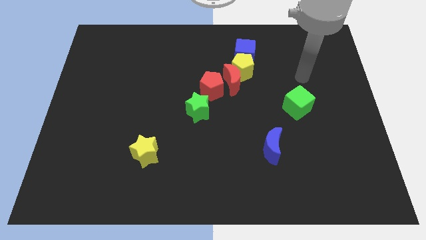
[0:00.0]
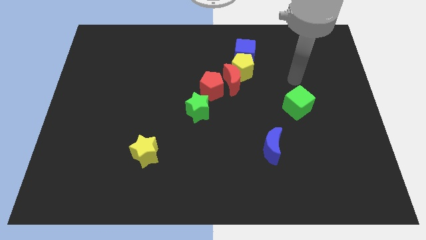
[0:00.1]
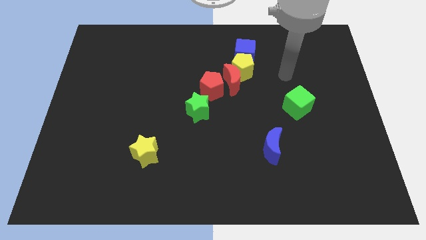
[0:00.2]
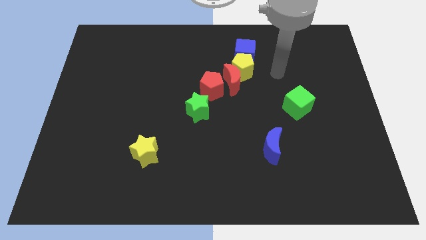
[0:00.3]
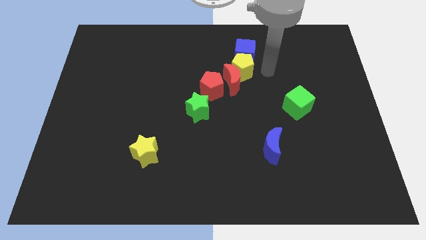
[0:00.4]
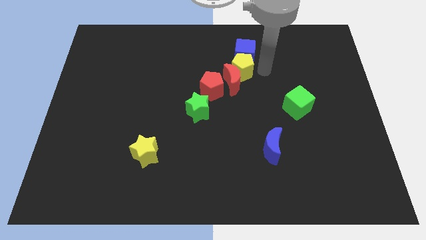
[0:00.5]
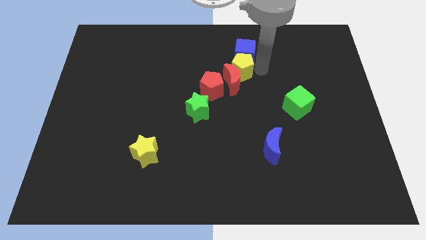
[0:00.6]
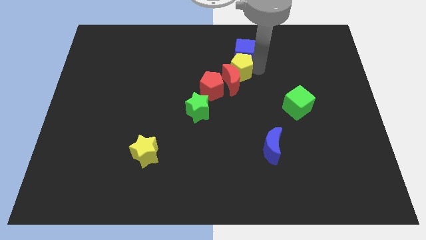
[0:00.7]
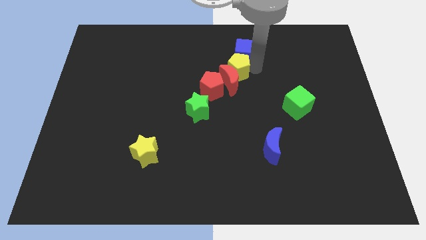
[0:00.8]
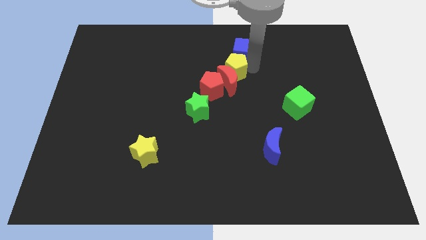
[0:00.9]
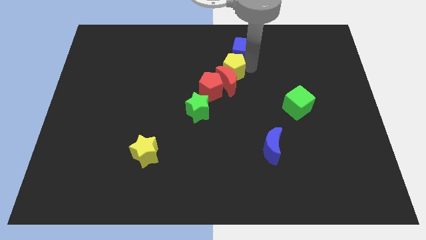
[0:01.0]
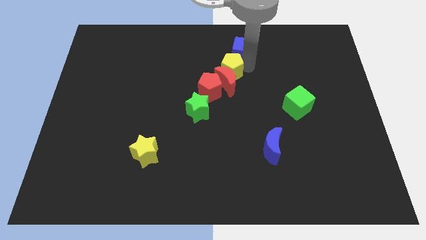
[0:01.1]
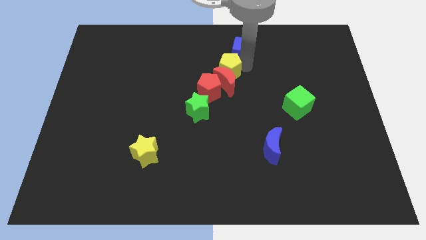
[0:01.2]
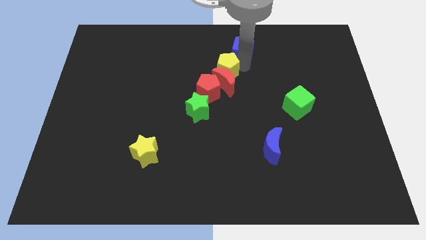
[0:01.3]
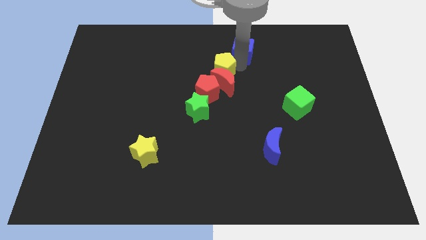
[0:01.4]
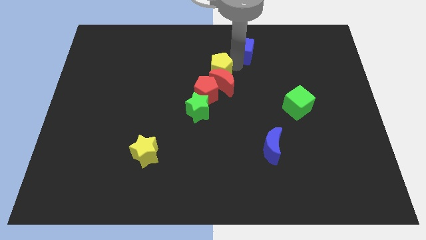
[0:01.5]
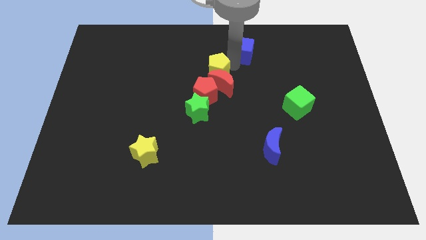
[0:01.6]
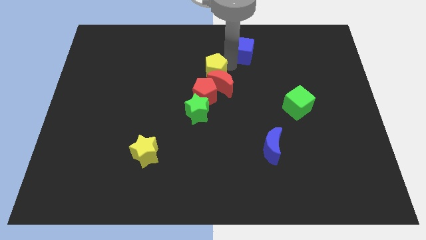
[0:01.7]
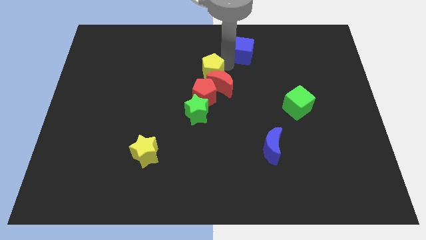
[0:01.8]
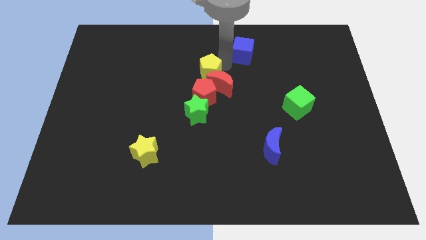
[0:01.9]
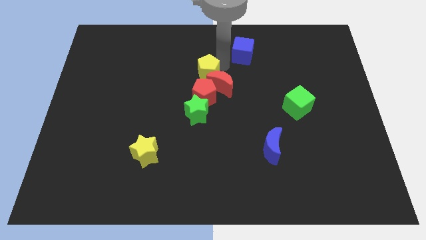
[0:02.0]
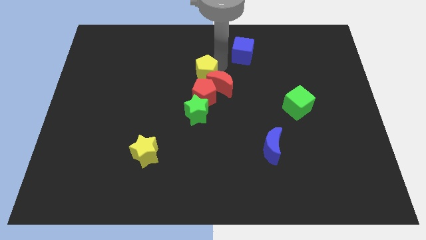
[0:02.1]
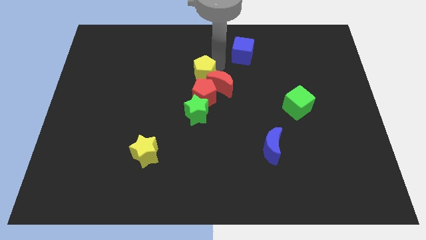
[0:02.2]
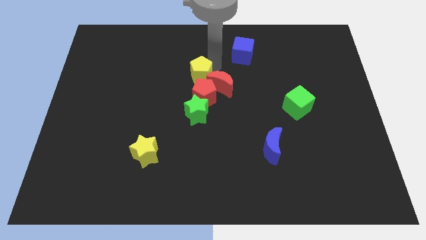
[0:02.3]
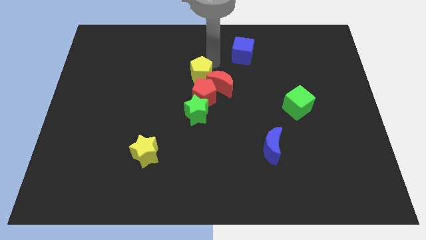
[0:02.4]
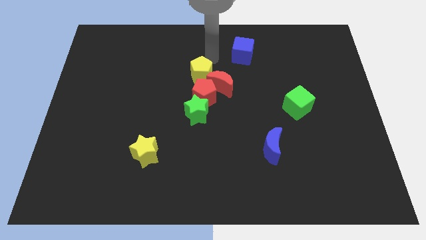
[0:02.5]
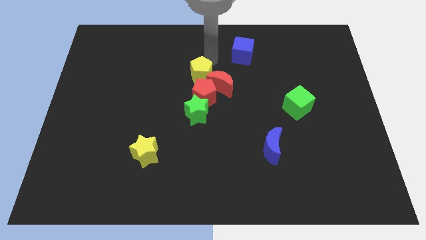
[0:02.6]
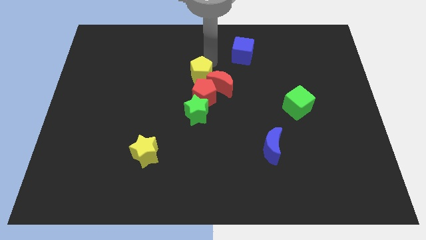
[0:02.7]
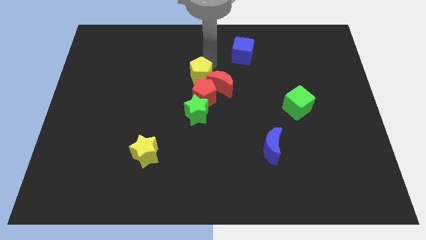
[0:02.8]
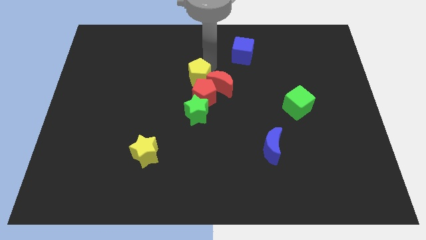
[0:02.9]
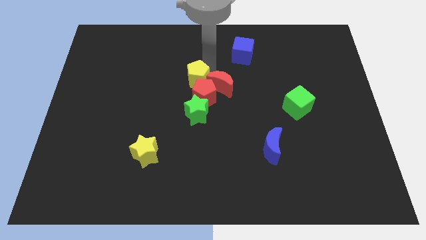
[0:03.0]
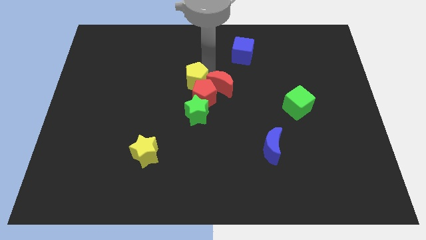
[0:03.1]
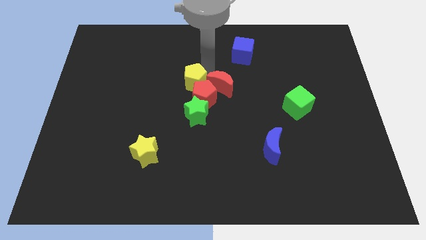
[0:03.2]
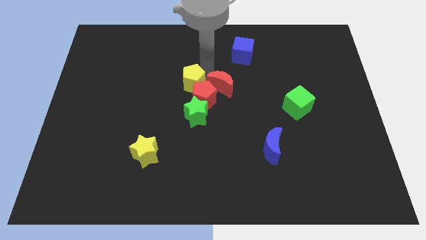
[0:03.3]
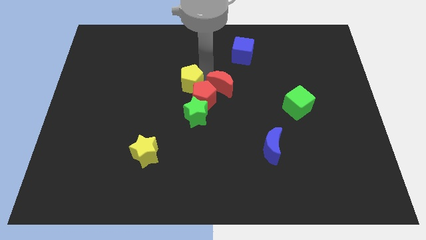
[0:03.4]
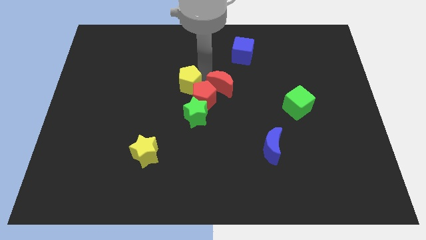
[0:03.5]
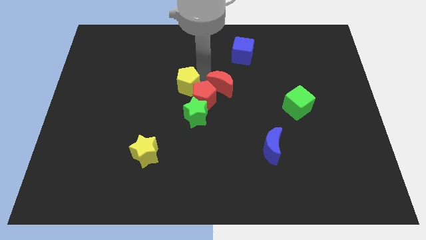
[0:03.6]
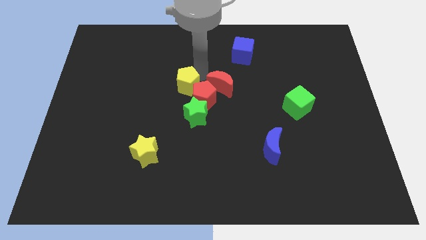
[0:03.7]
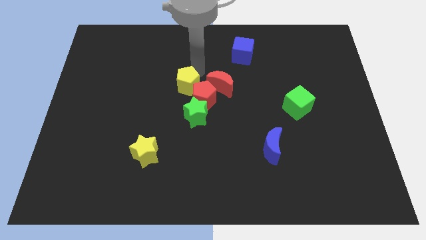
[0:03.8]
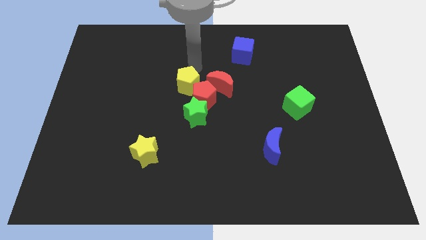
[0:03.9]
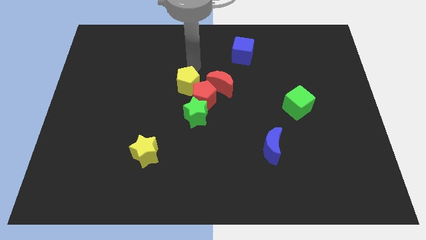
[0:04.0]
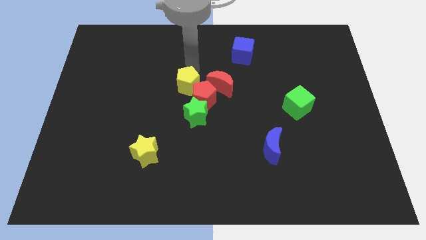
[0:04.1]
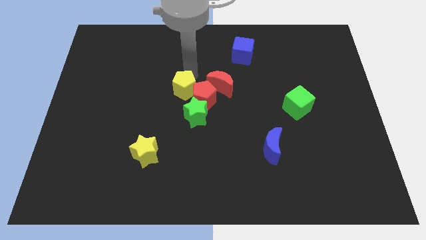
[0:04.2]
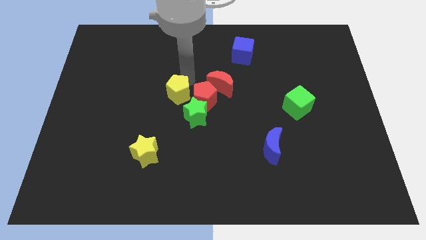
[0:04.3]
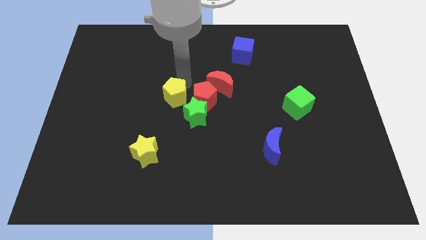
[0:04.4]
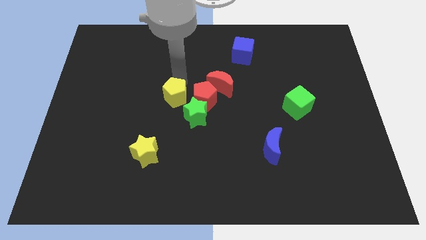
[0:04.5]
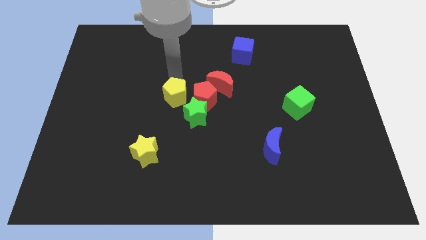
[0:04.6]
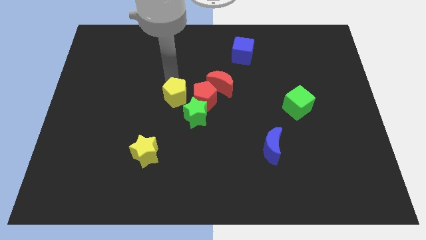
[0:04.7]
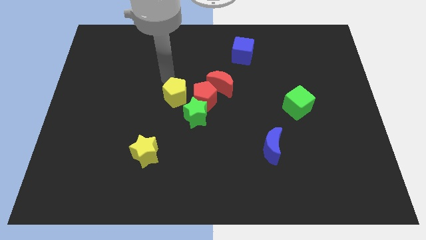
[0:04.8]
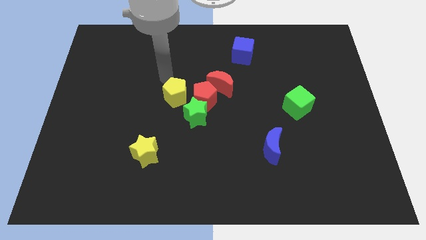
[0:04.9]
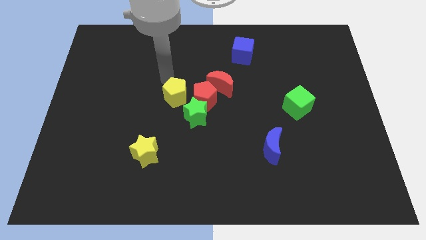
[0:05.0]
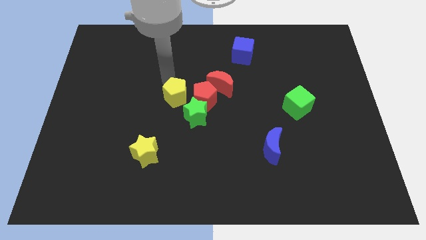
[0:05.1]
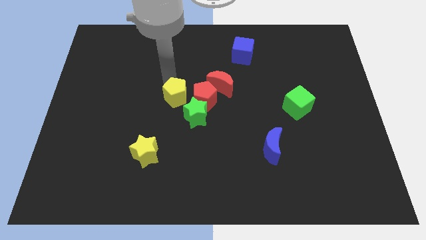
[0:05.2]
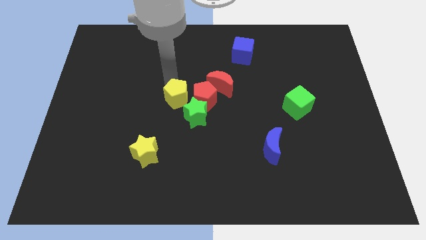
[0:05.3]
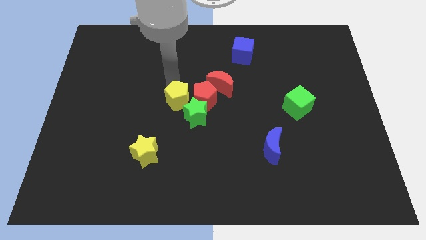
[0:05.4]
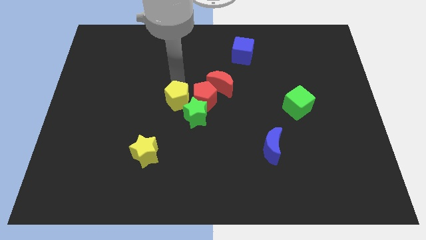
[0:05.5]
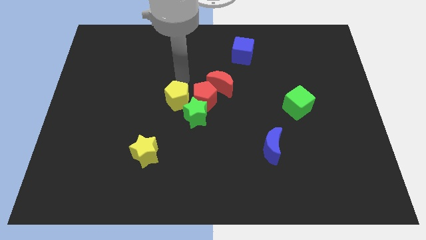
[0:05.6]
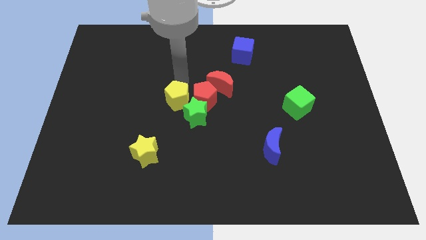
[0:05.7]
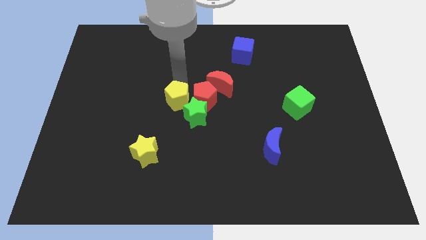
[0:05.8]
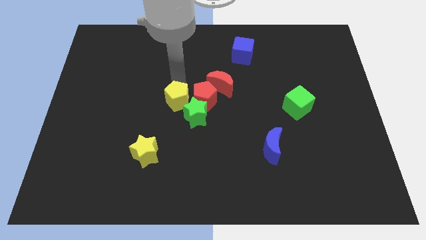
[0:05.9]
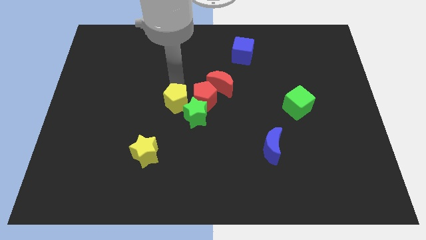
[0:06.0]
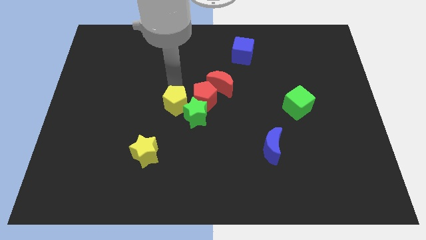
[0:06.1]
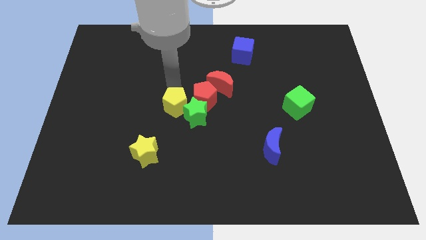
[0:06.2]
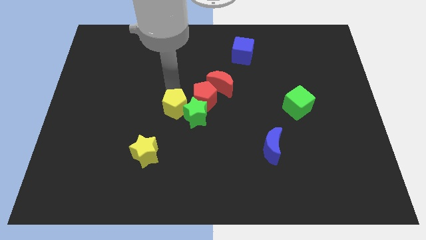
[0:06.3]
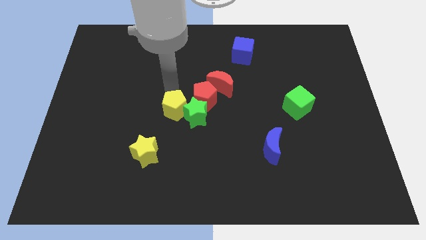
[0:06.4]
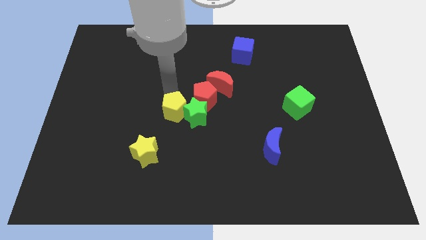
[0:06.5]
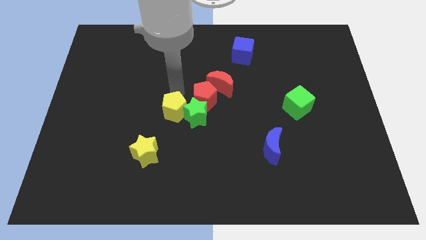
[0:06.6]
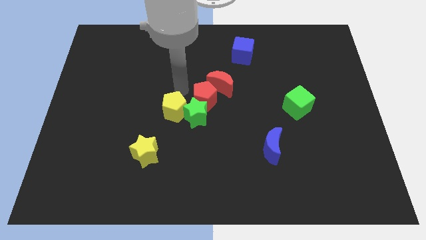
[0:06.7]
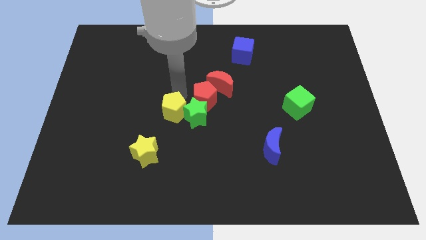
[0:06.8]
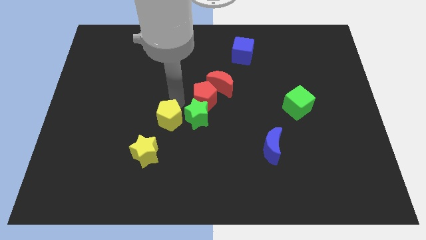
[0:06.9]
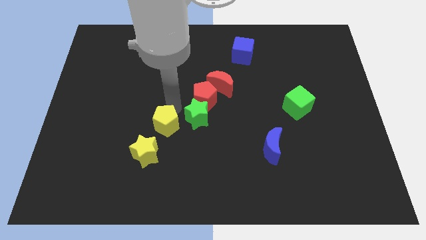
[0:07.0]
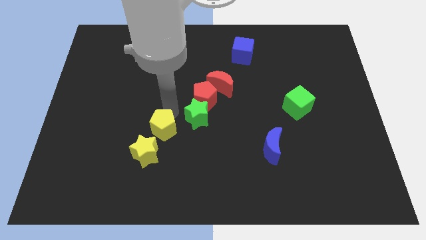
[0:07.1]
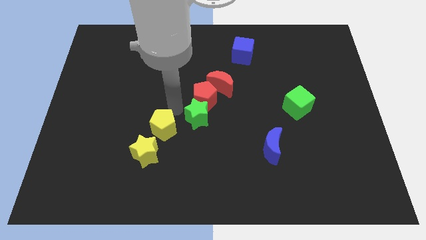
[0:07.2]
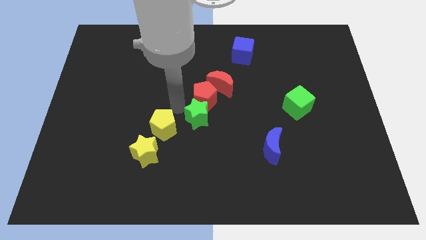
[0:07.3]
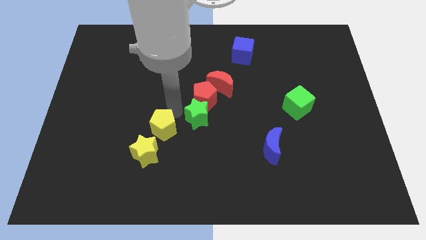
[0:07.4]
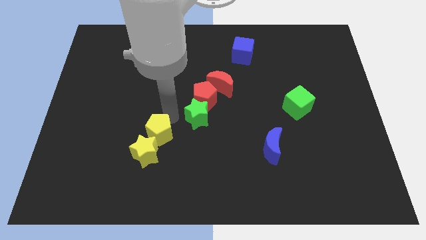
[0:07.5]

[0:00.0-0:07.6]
push the yellow pentagon close to the yellow star
